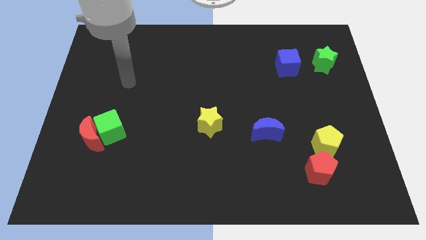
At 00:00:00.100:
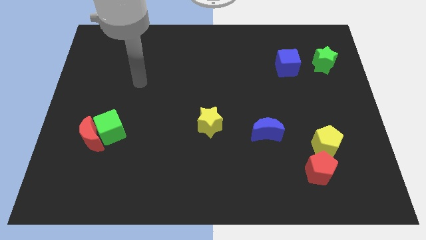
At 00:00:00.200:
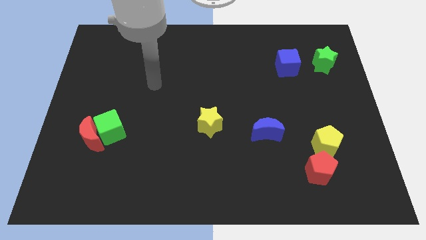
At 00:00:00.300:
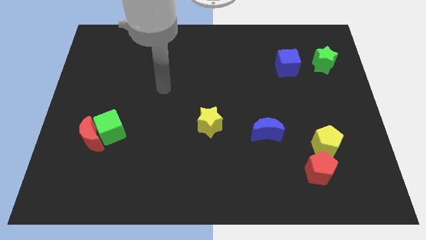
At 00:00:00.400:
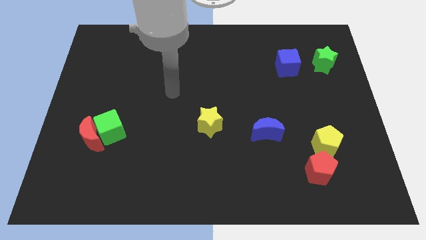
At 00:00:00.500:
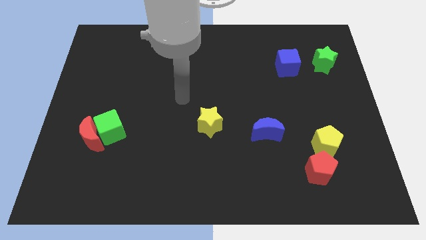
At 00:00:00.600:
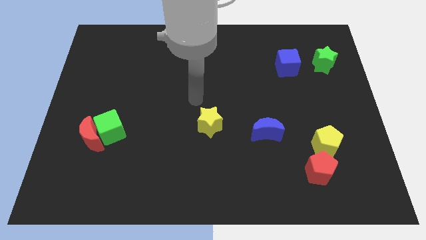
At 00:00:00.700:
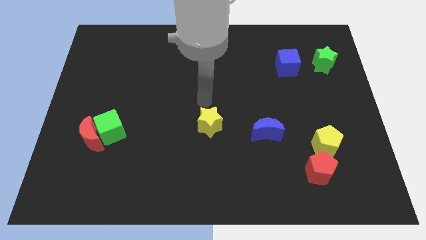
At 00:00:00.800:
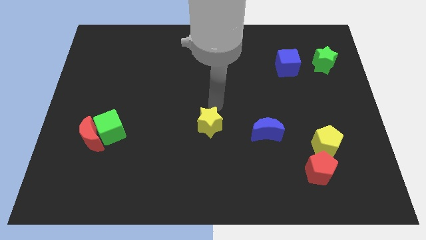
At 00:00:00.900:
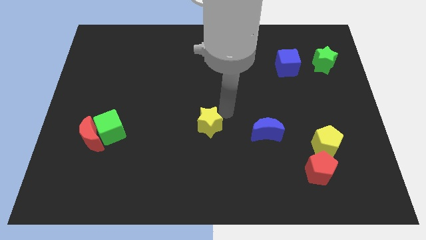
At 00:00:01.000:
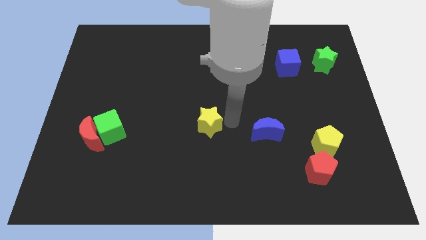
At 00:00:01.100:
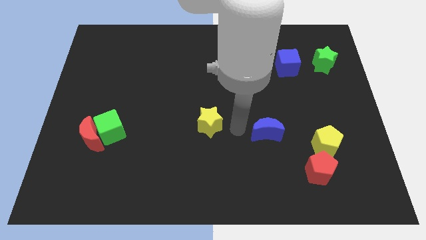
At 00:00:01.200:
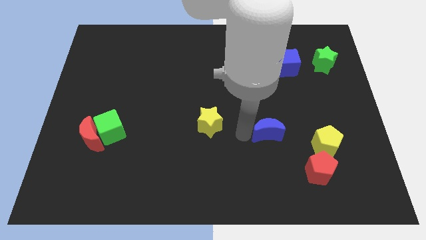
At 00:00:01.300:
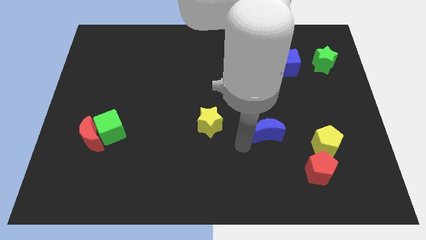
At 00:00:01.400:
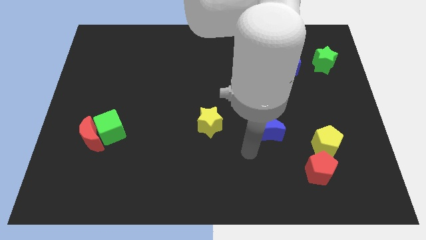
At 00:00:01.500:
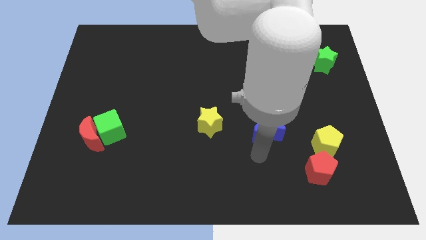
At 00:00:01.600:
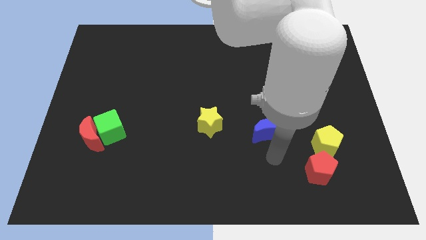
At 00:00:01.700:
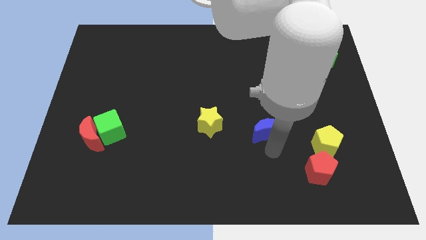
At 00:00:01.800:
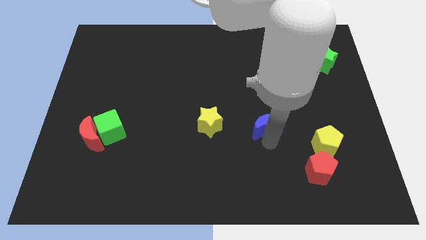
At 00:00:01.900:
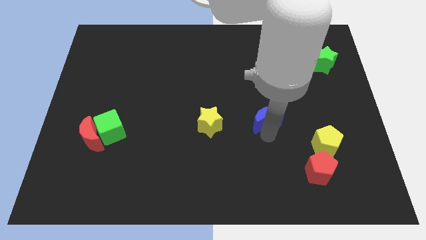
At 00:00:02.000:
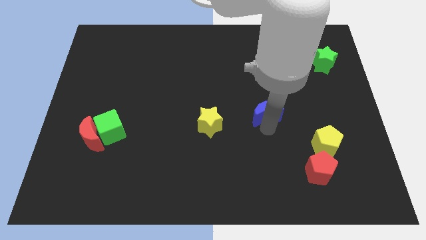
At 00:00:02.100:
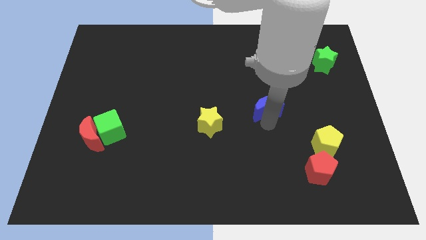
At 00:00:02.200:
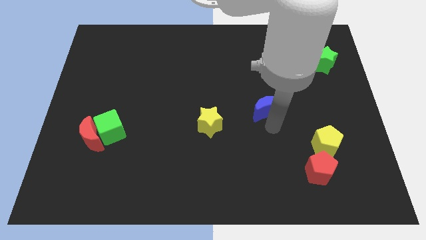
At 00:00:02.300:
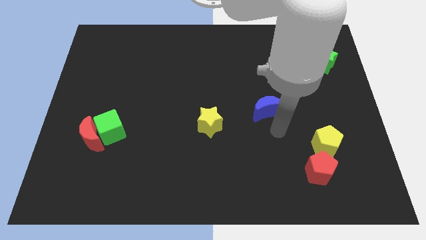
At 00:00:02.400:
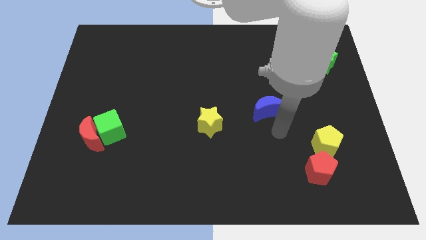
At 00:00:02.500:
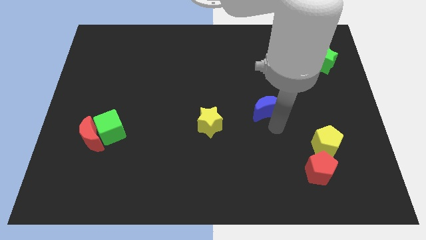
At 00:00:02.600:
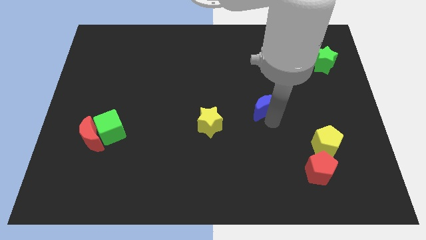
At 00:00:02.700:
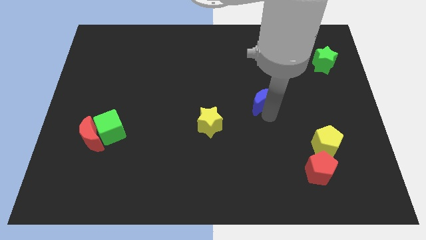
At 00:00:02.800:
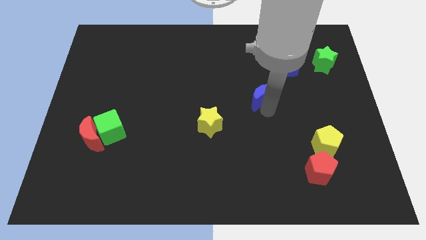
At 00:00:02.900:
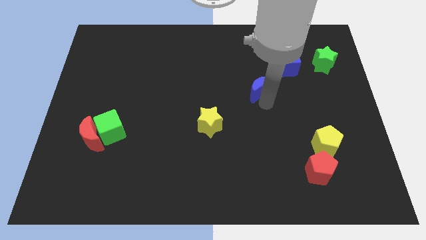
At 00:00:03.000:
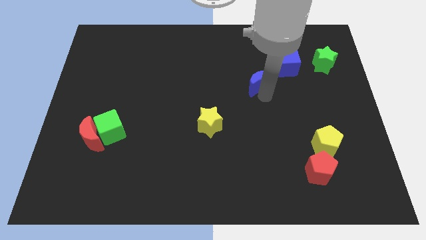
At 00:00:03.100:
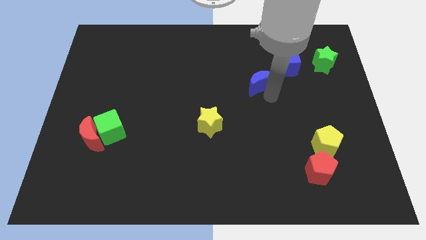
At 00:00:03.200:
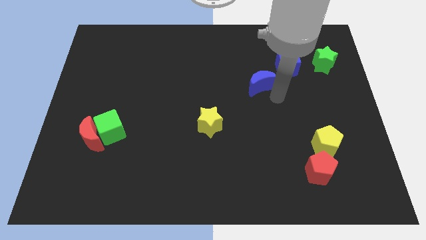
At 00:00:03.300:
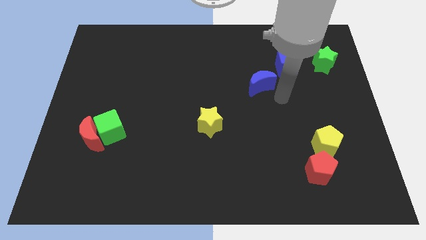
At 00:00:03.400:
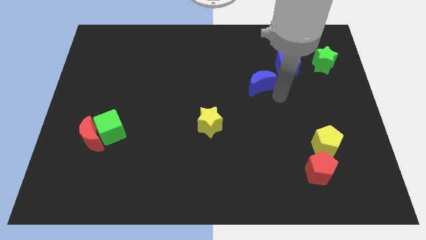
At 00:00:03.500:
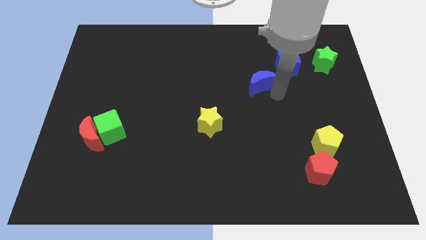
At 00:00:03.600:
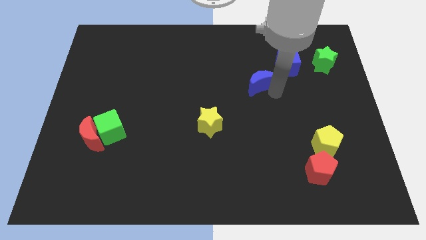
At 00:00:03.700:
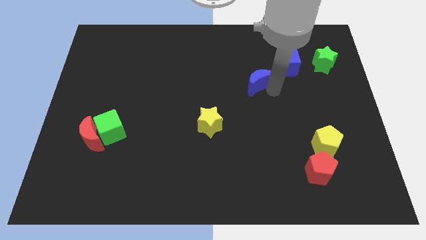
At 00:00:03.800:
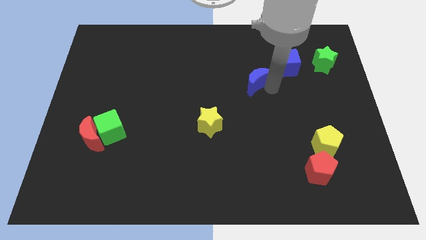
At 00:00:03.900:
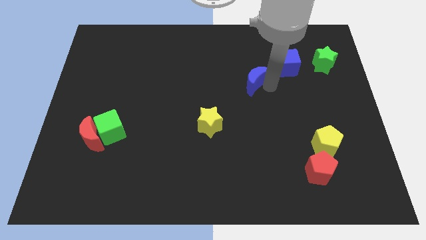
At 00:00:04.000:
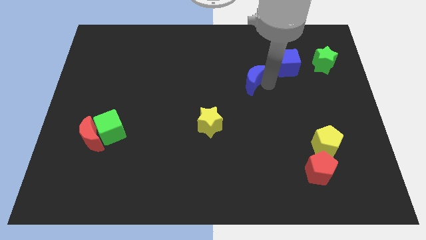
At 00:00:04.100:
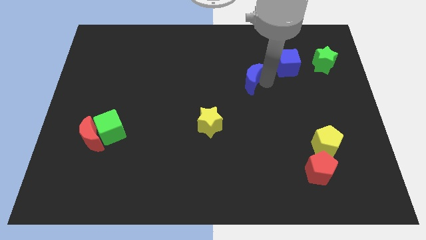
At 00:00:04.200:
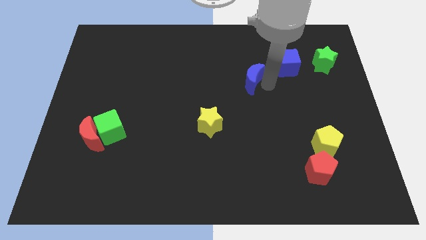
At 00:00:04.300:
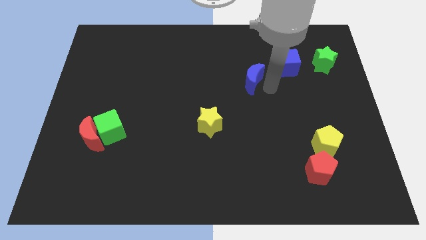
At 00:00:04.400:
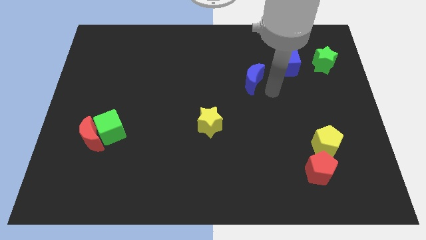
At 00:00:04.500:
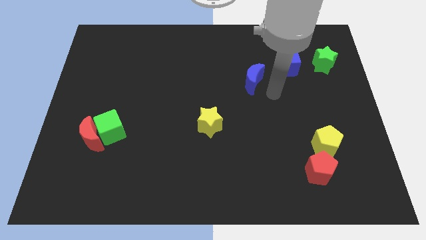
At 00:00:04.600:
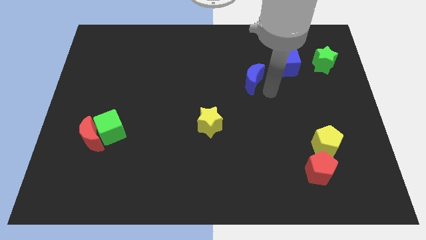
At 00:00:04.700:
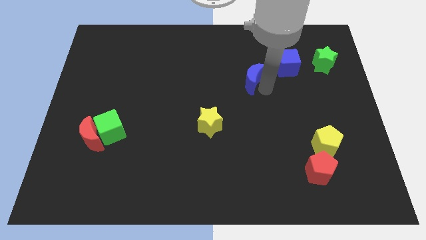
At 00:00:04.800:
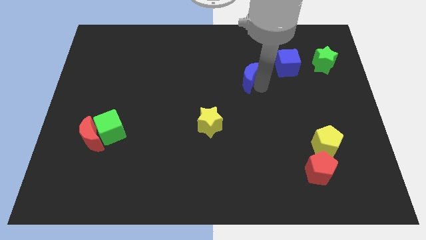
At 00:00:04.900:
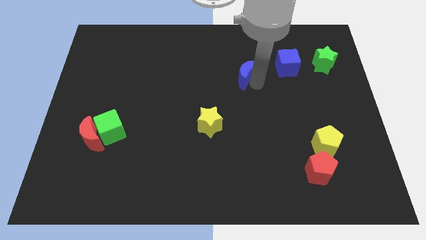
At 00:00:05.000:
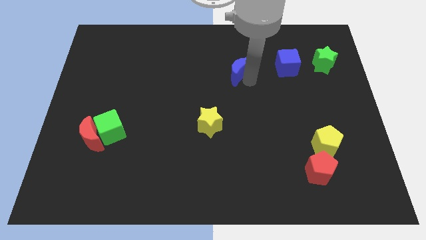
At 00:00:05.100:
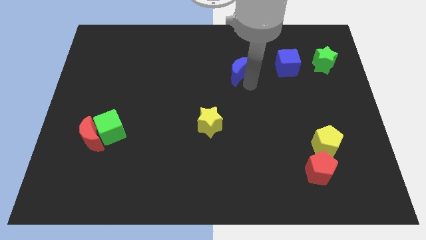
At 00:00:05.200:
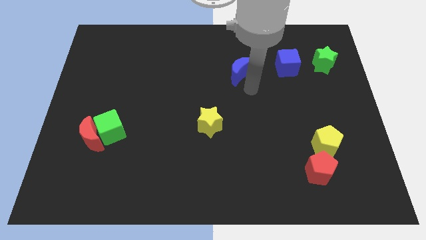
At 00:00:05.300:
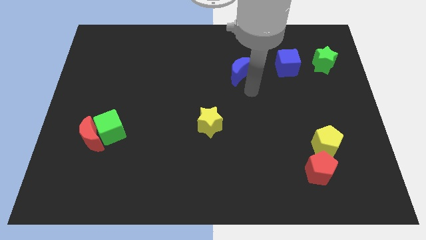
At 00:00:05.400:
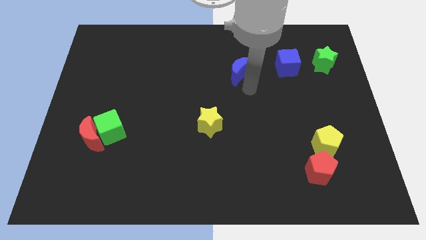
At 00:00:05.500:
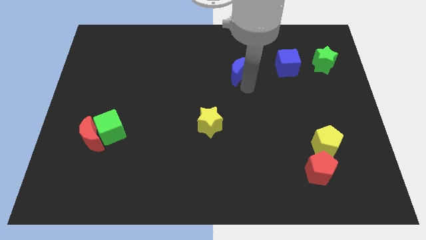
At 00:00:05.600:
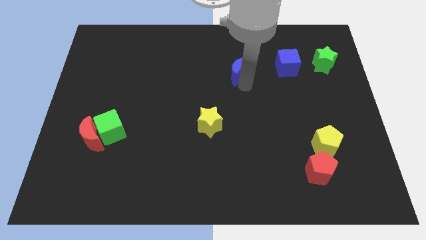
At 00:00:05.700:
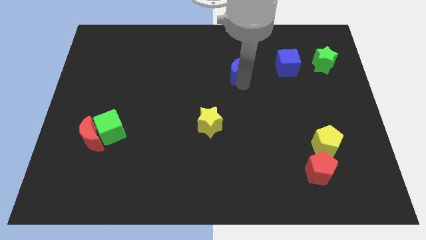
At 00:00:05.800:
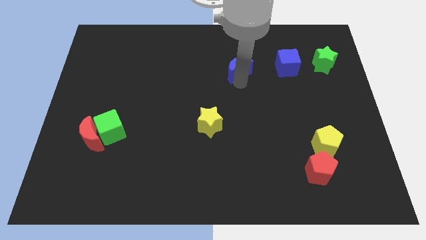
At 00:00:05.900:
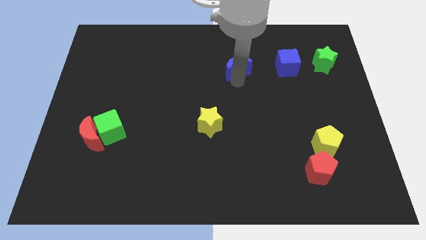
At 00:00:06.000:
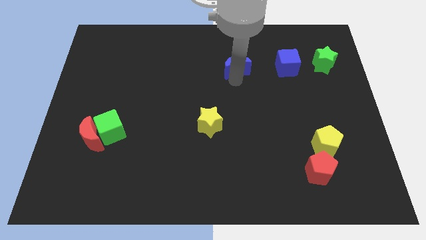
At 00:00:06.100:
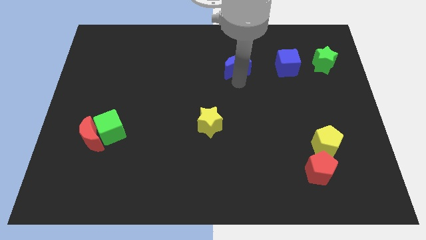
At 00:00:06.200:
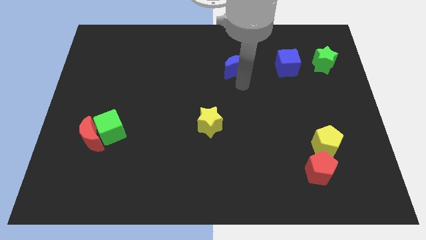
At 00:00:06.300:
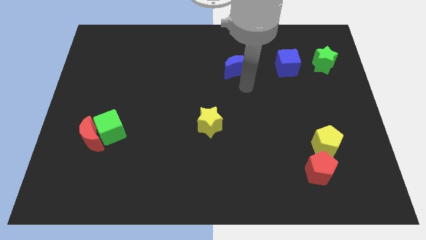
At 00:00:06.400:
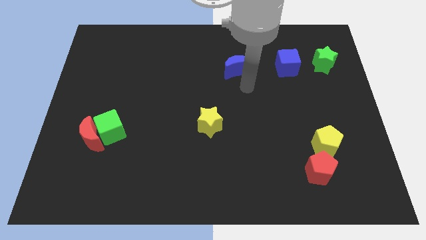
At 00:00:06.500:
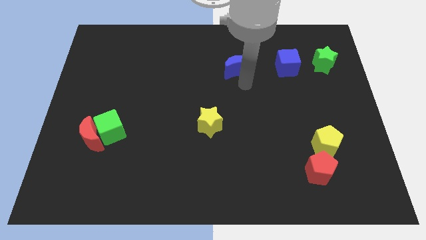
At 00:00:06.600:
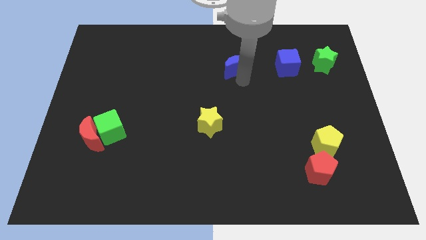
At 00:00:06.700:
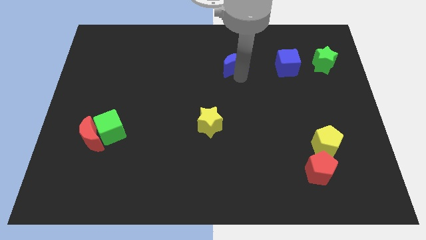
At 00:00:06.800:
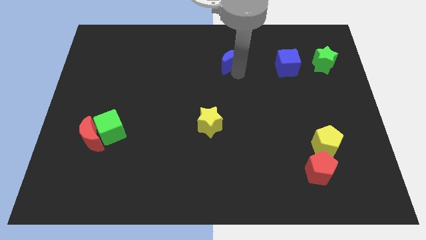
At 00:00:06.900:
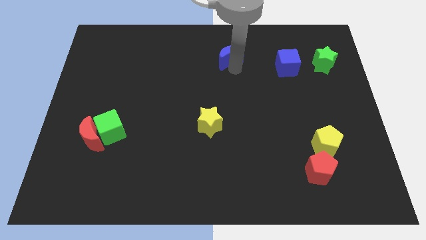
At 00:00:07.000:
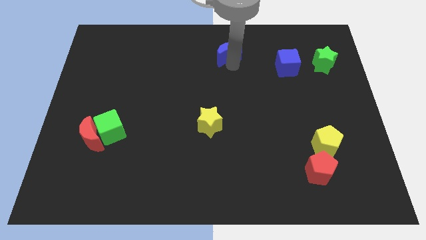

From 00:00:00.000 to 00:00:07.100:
slide the blue moon to the towards your base
